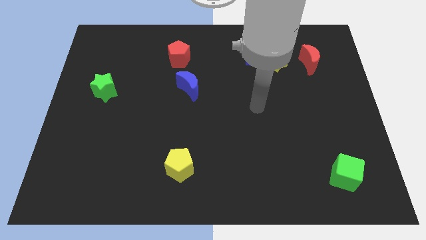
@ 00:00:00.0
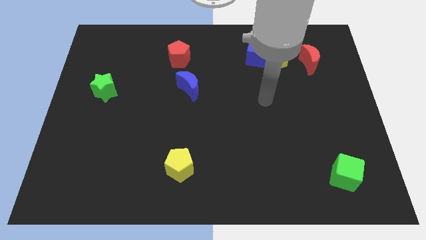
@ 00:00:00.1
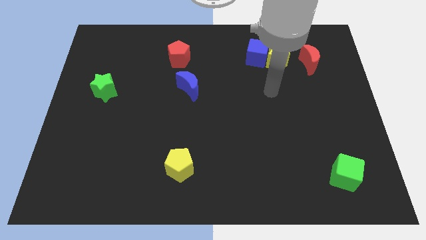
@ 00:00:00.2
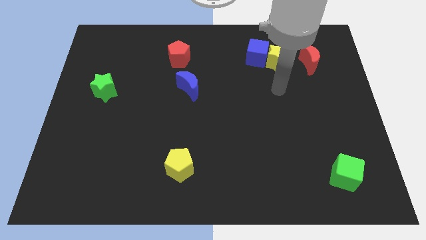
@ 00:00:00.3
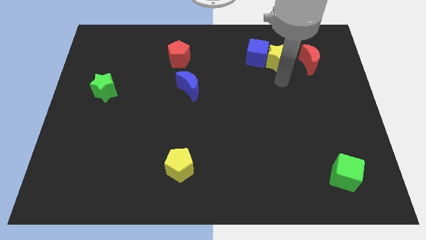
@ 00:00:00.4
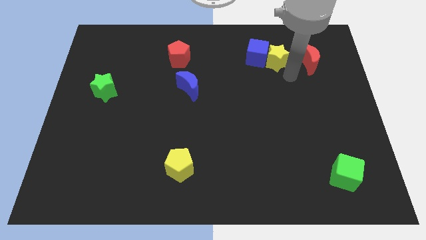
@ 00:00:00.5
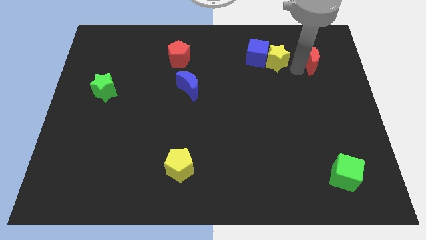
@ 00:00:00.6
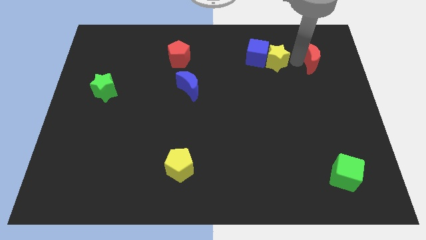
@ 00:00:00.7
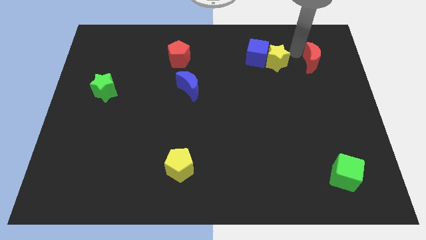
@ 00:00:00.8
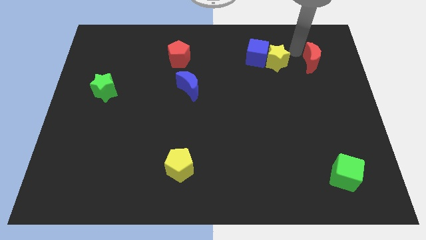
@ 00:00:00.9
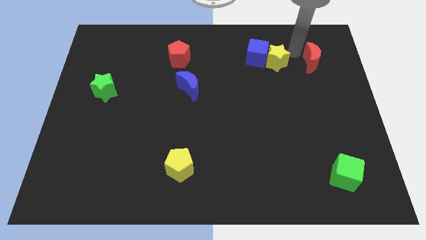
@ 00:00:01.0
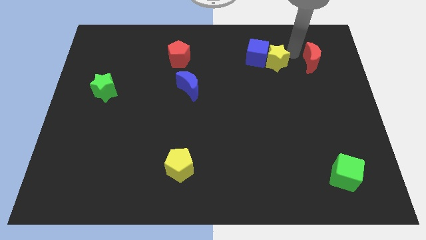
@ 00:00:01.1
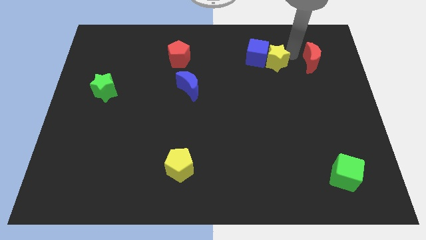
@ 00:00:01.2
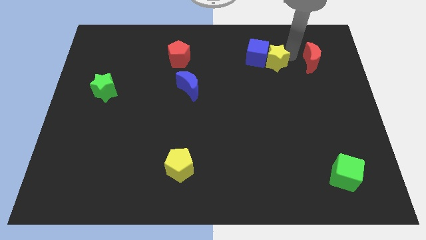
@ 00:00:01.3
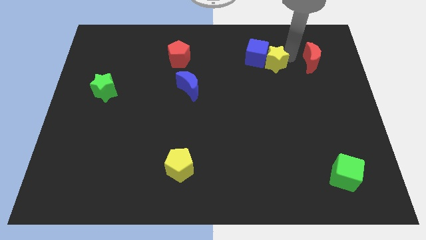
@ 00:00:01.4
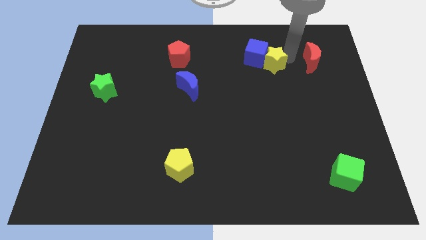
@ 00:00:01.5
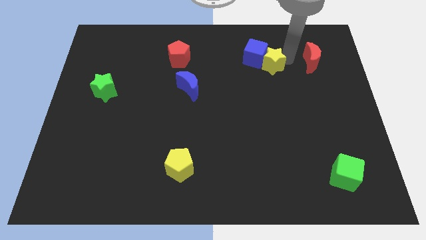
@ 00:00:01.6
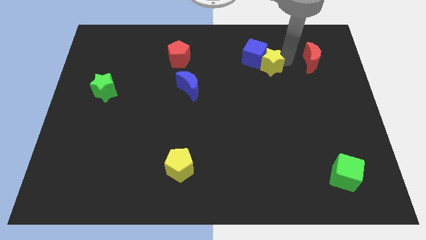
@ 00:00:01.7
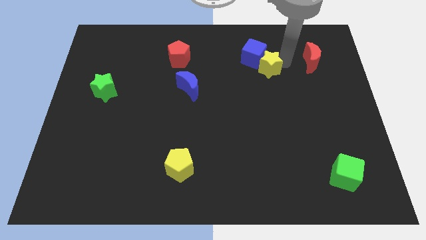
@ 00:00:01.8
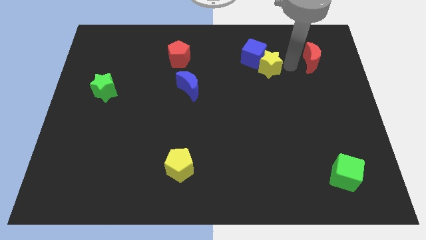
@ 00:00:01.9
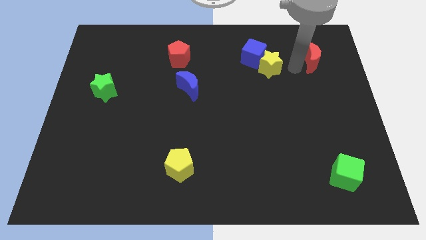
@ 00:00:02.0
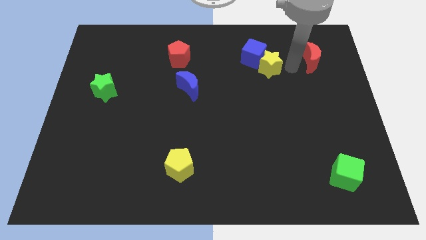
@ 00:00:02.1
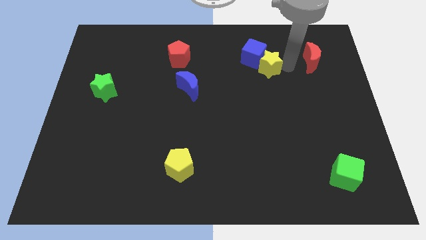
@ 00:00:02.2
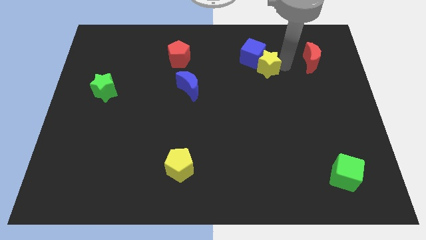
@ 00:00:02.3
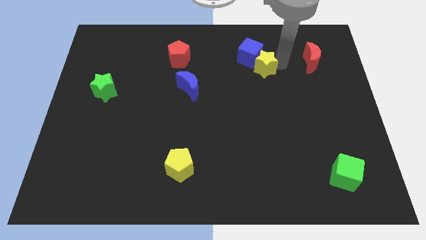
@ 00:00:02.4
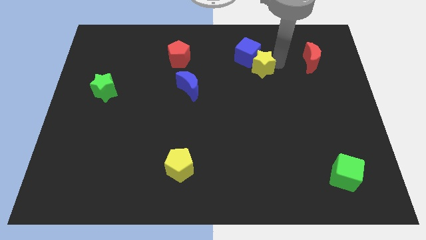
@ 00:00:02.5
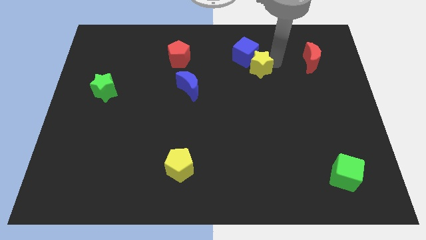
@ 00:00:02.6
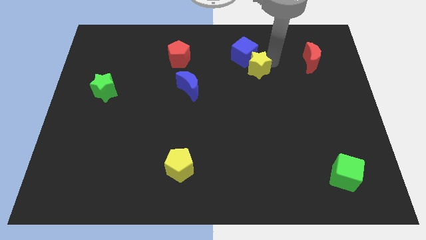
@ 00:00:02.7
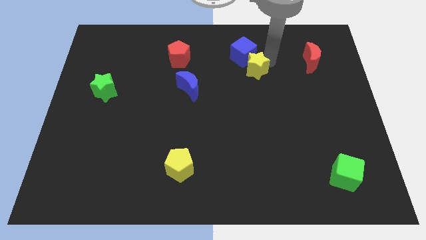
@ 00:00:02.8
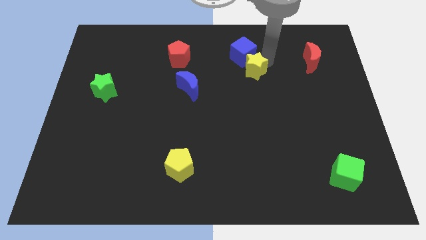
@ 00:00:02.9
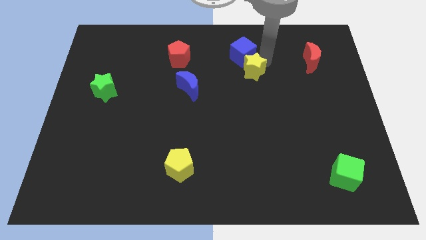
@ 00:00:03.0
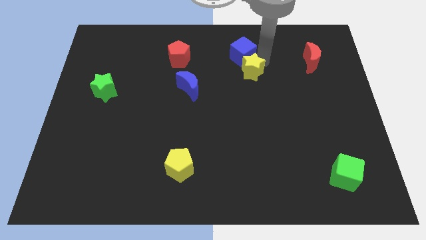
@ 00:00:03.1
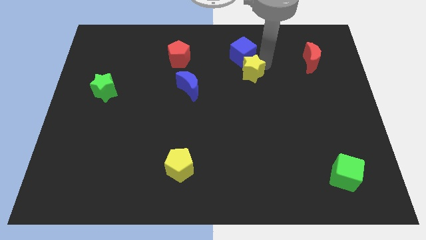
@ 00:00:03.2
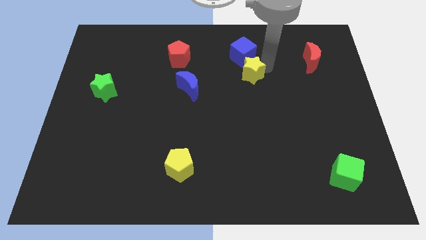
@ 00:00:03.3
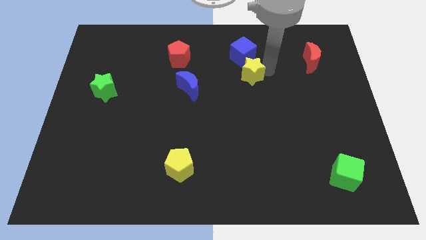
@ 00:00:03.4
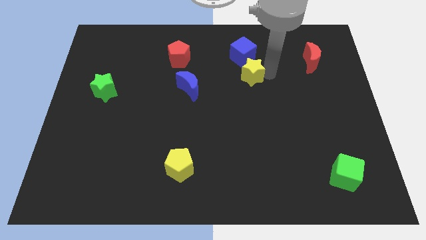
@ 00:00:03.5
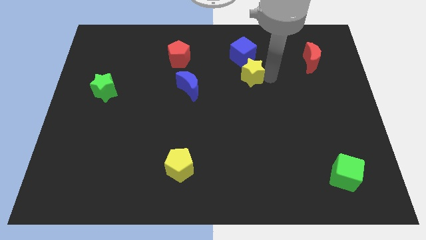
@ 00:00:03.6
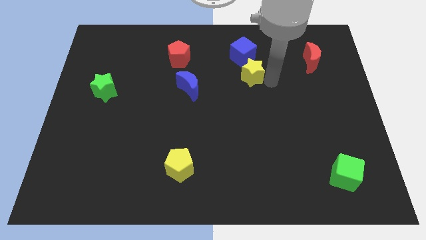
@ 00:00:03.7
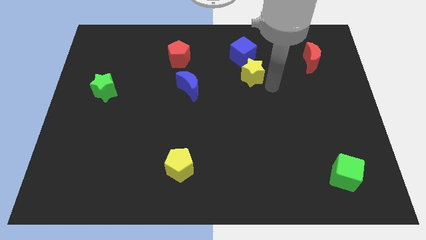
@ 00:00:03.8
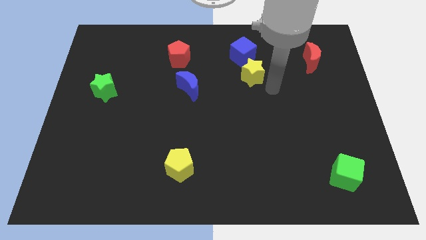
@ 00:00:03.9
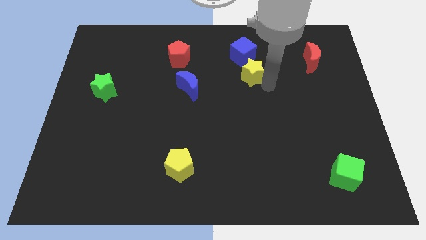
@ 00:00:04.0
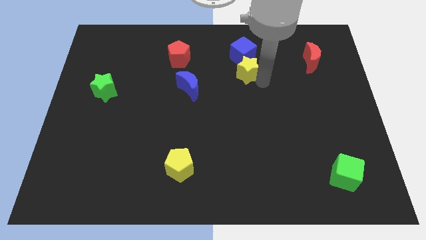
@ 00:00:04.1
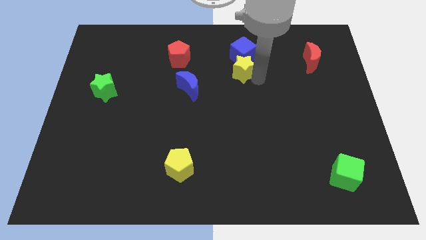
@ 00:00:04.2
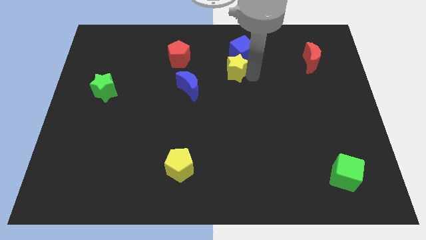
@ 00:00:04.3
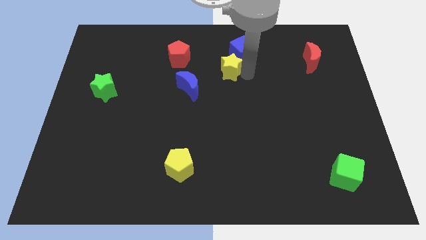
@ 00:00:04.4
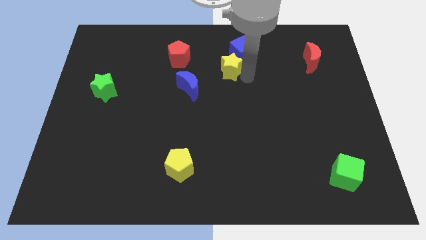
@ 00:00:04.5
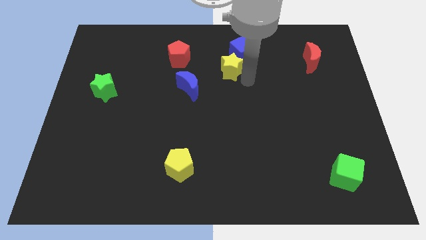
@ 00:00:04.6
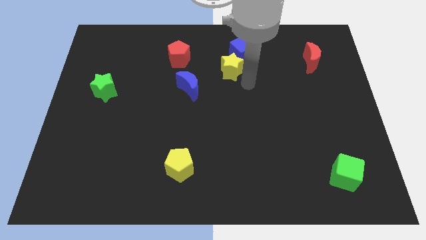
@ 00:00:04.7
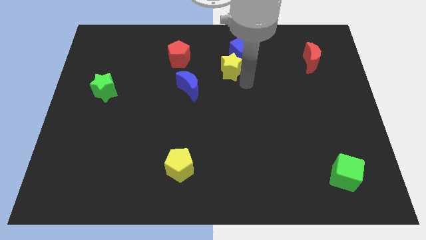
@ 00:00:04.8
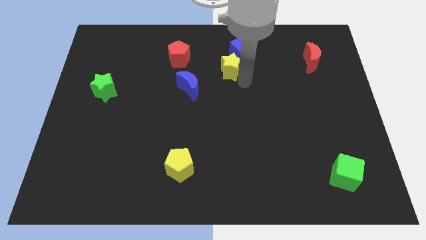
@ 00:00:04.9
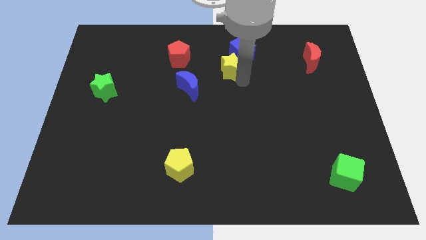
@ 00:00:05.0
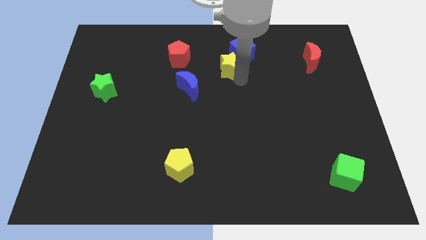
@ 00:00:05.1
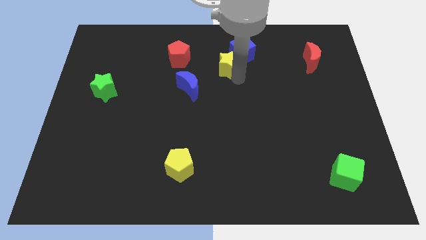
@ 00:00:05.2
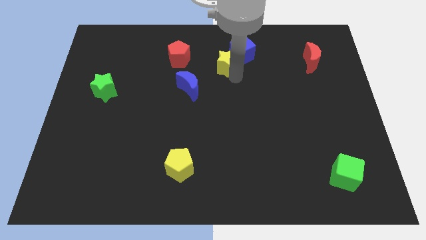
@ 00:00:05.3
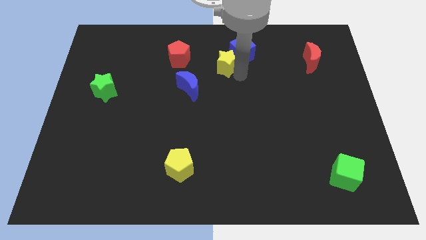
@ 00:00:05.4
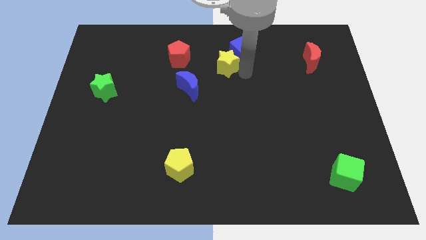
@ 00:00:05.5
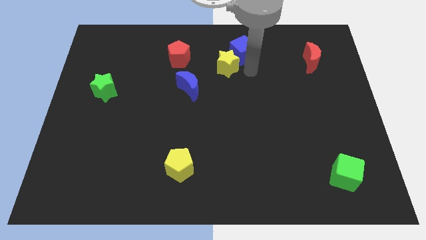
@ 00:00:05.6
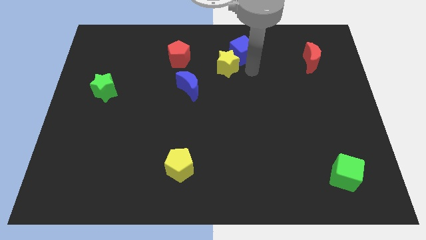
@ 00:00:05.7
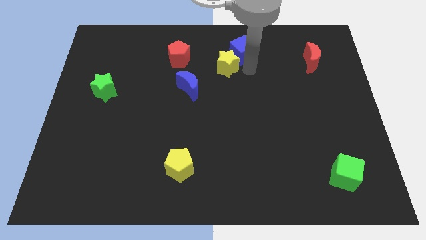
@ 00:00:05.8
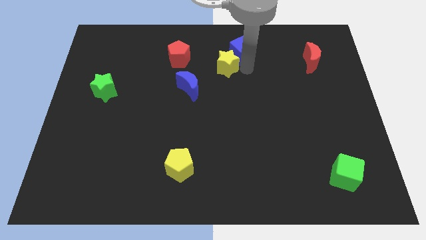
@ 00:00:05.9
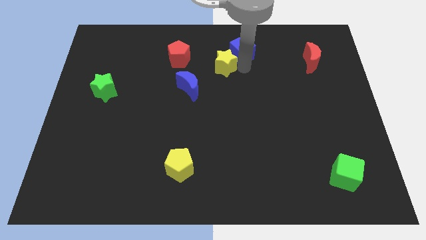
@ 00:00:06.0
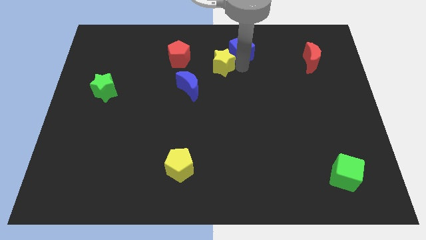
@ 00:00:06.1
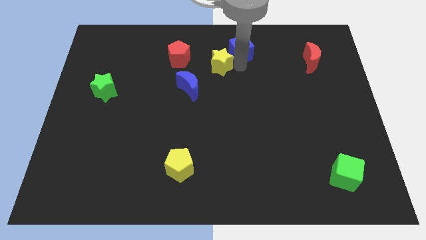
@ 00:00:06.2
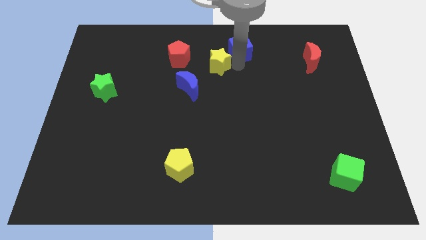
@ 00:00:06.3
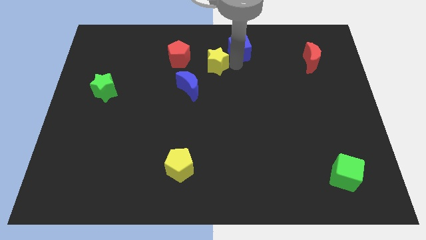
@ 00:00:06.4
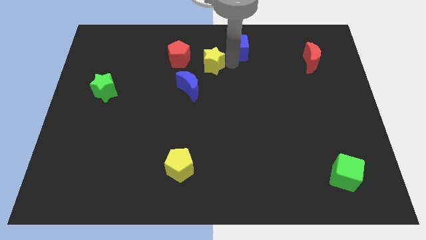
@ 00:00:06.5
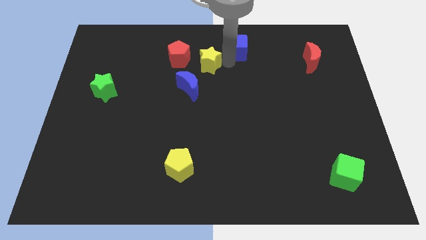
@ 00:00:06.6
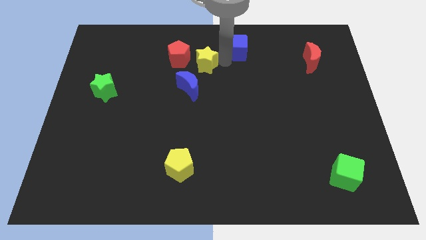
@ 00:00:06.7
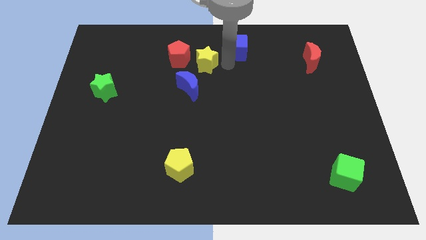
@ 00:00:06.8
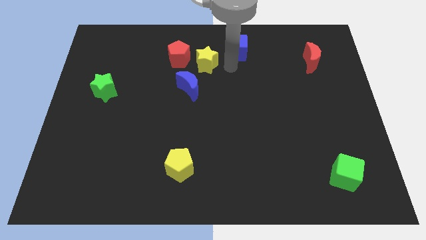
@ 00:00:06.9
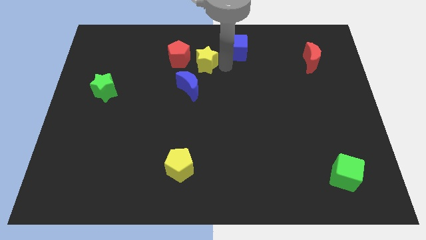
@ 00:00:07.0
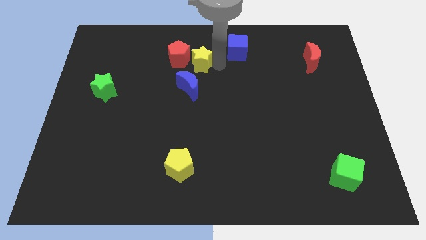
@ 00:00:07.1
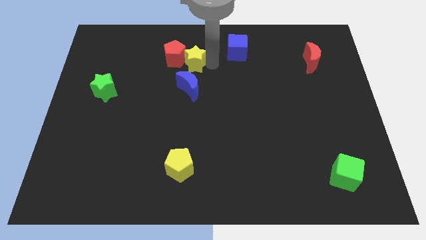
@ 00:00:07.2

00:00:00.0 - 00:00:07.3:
slide the yellow star to the red pentagon
